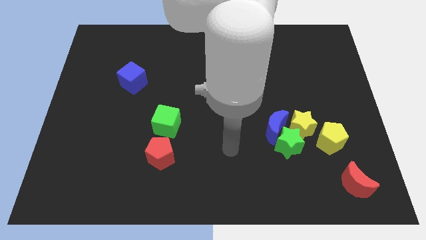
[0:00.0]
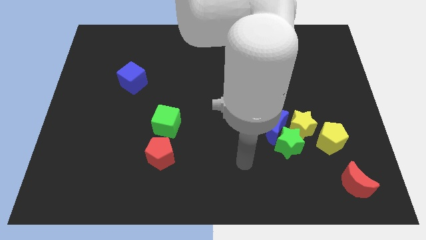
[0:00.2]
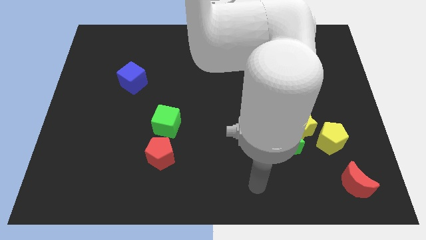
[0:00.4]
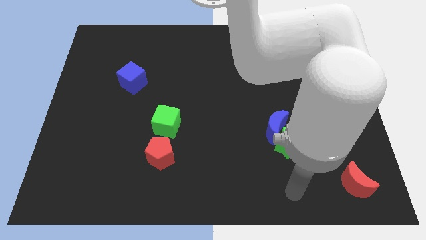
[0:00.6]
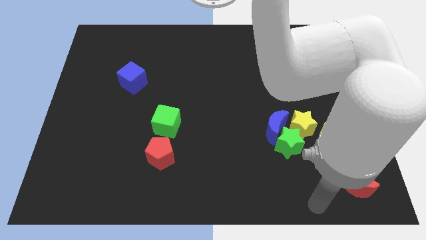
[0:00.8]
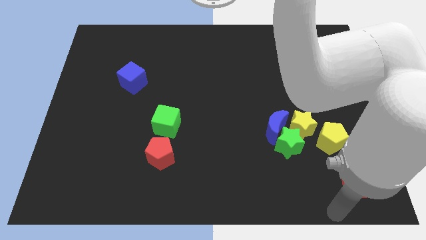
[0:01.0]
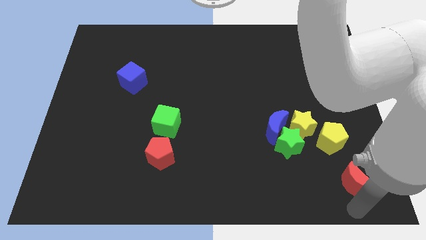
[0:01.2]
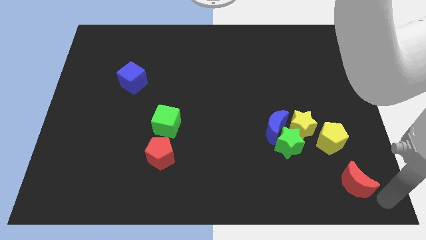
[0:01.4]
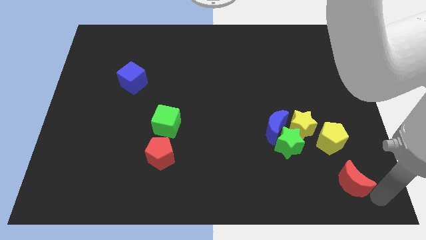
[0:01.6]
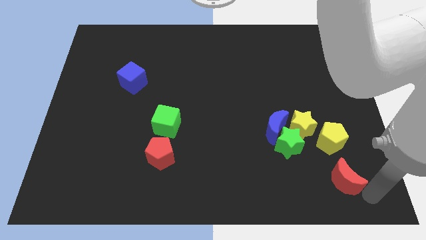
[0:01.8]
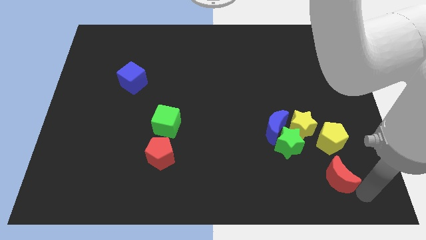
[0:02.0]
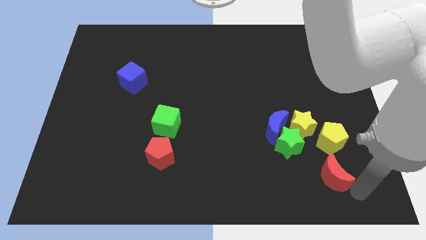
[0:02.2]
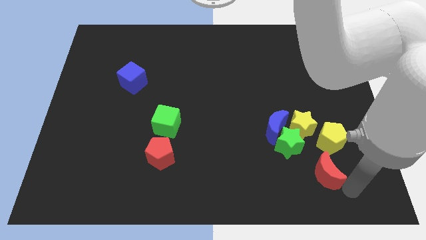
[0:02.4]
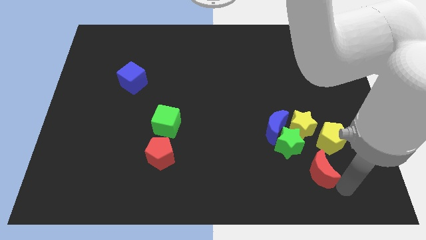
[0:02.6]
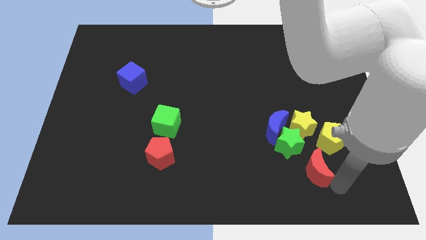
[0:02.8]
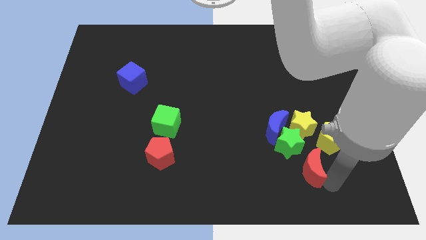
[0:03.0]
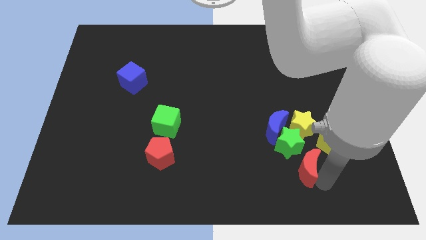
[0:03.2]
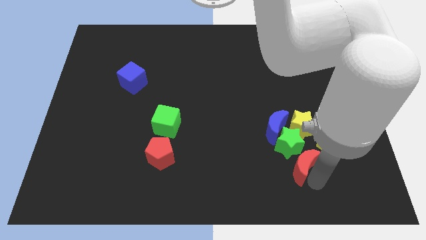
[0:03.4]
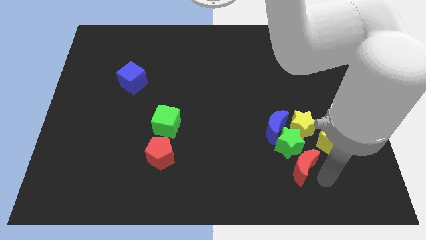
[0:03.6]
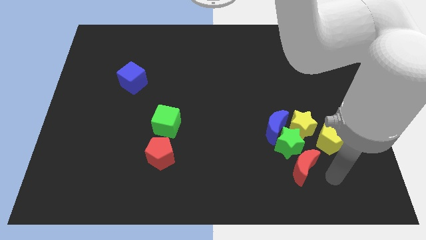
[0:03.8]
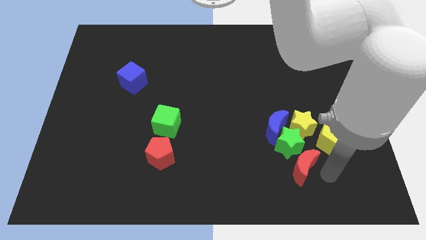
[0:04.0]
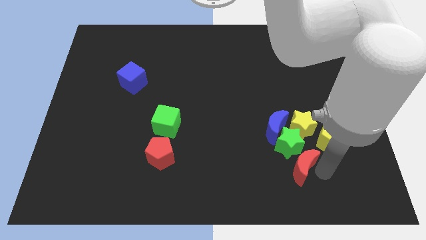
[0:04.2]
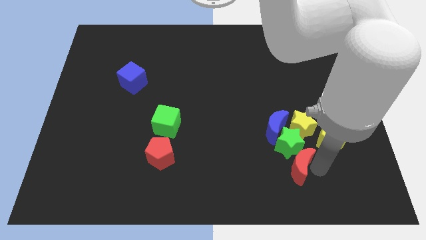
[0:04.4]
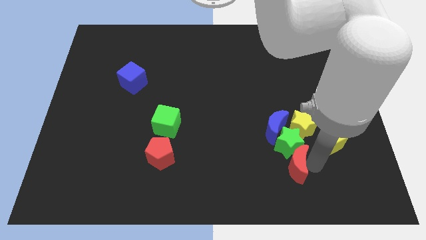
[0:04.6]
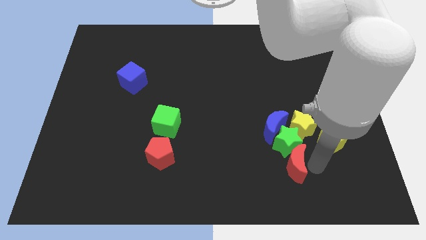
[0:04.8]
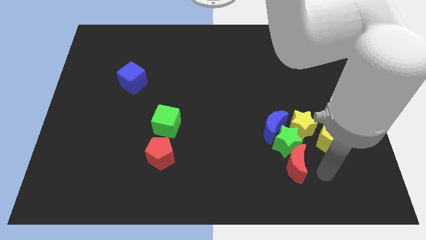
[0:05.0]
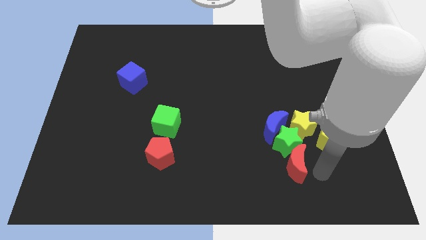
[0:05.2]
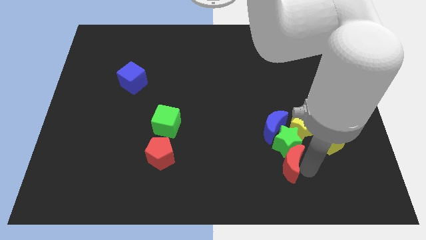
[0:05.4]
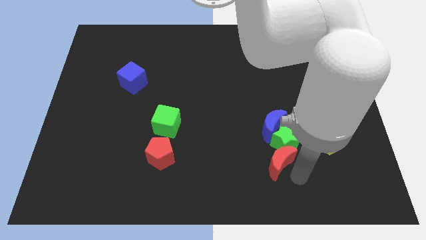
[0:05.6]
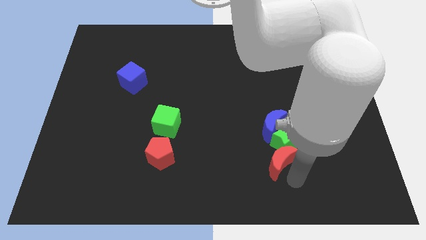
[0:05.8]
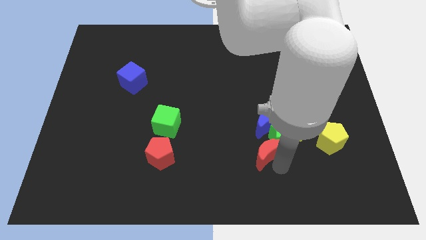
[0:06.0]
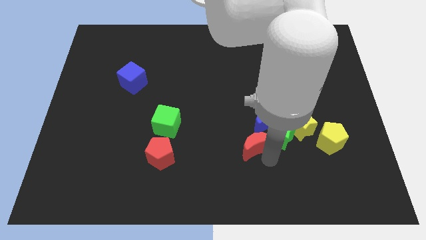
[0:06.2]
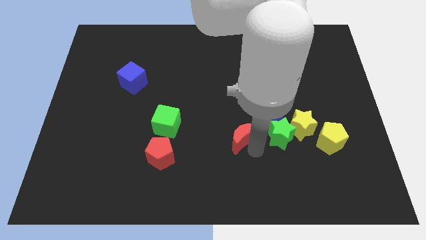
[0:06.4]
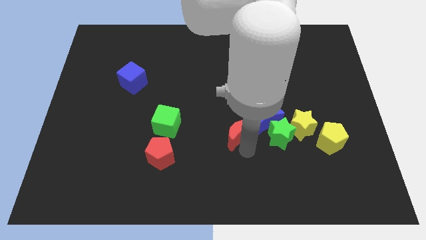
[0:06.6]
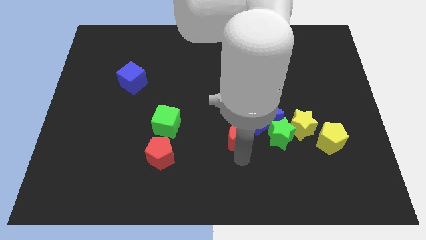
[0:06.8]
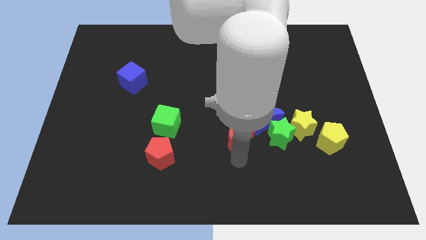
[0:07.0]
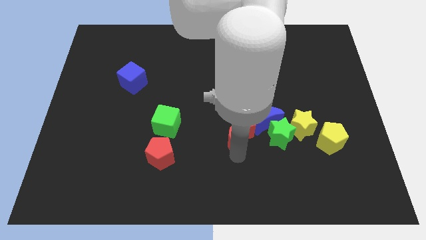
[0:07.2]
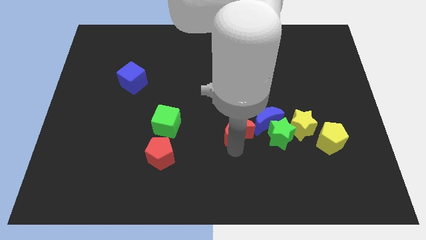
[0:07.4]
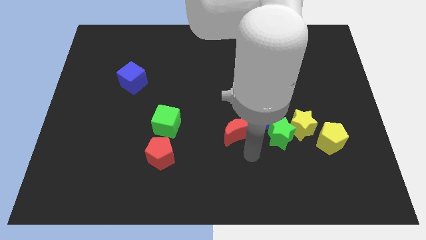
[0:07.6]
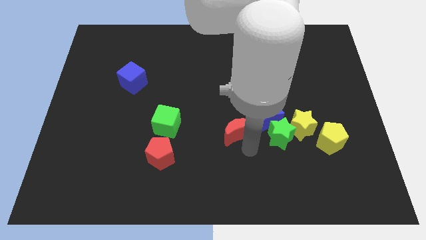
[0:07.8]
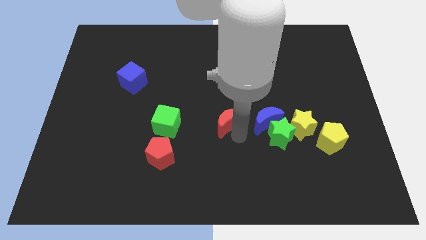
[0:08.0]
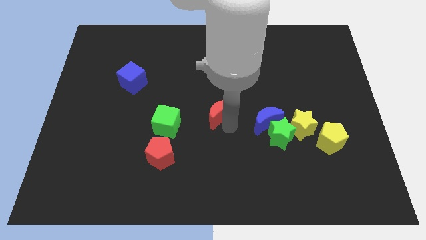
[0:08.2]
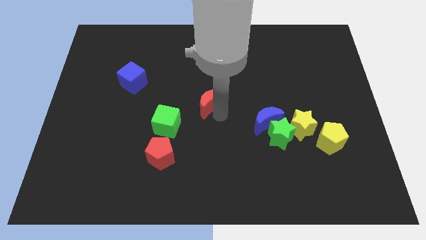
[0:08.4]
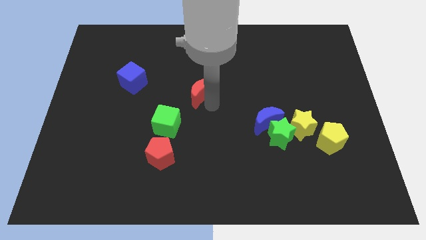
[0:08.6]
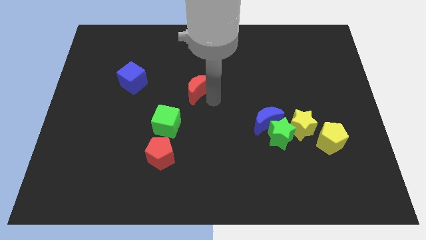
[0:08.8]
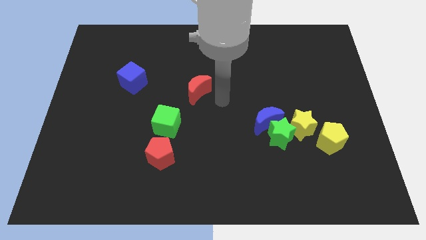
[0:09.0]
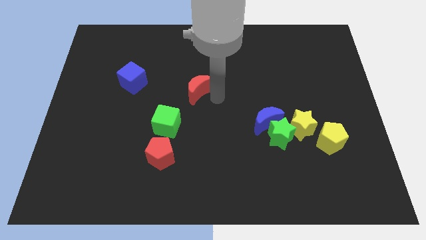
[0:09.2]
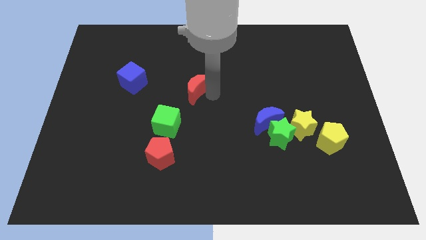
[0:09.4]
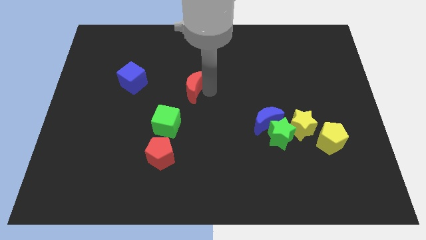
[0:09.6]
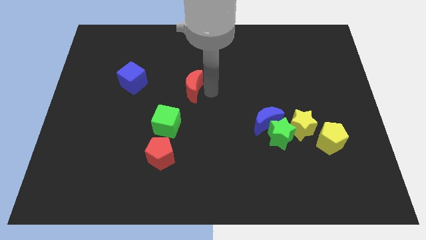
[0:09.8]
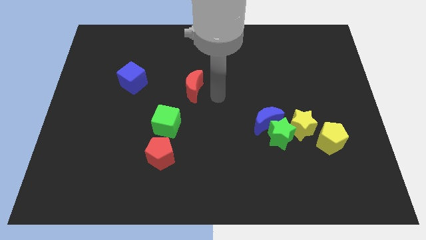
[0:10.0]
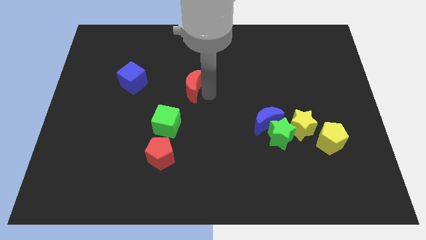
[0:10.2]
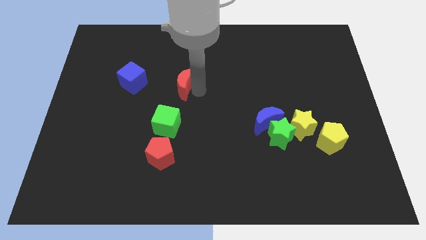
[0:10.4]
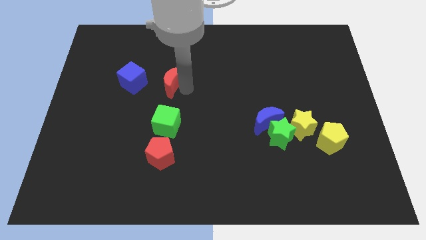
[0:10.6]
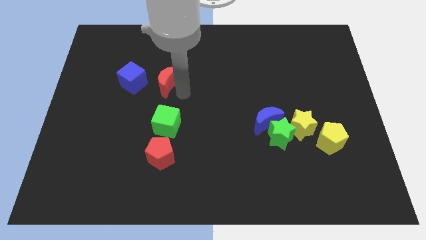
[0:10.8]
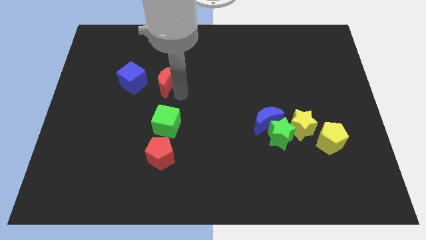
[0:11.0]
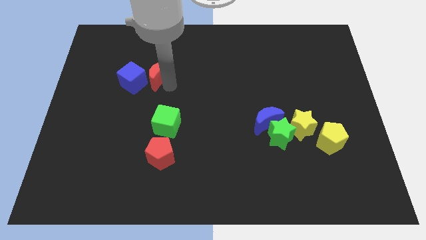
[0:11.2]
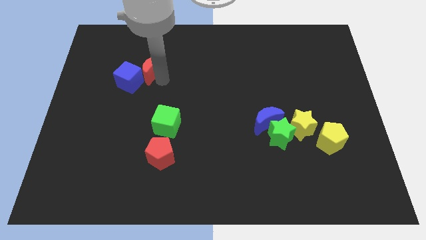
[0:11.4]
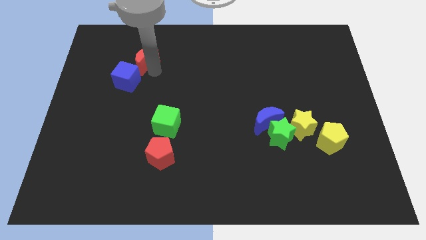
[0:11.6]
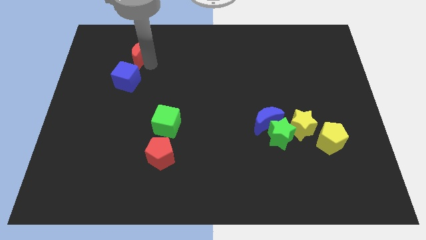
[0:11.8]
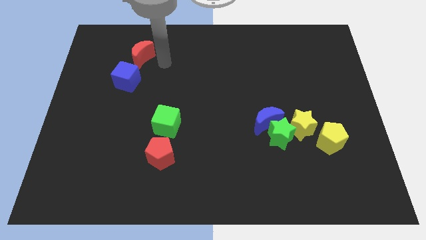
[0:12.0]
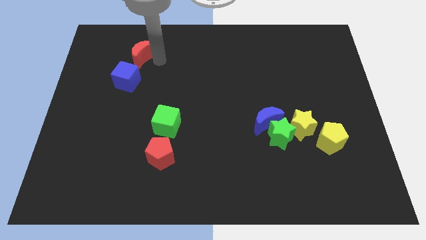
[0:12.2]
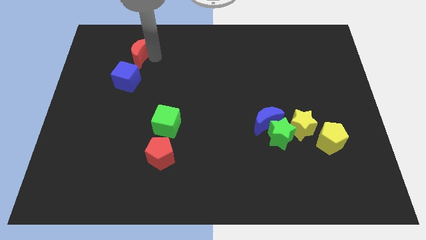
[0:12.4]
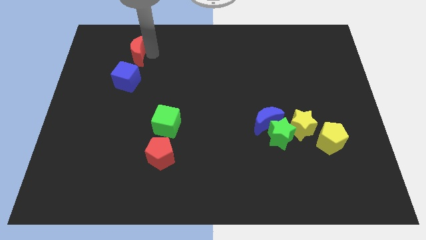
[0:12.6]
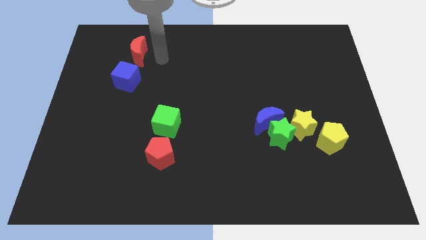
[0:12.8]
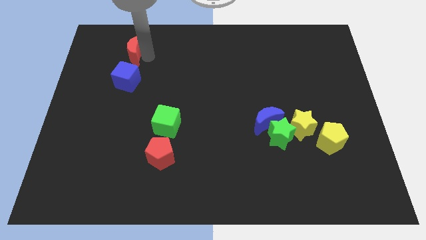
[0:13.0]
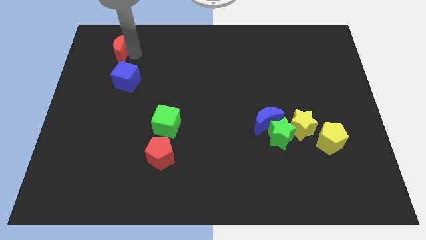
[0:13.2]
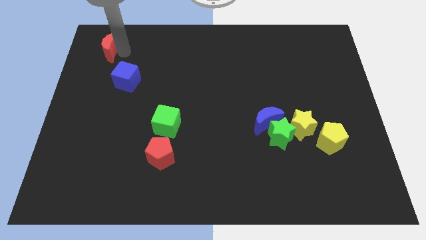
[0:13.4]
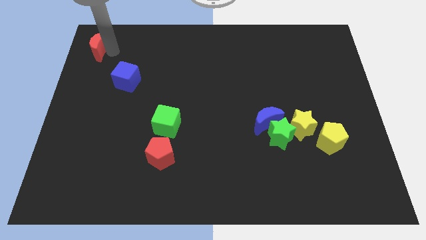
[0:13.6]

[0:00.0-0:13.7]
put the red moon to the top left
